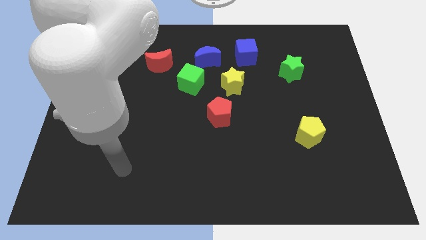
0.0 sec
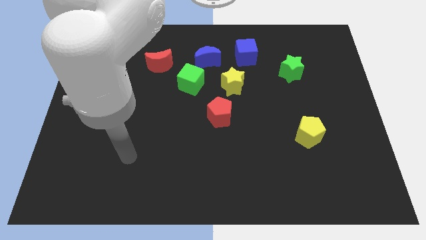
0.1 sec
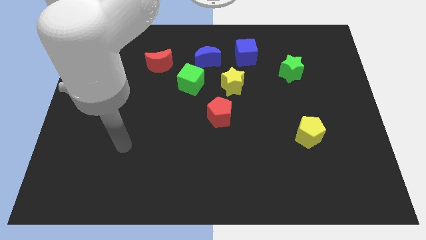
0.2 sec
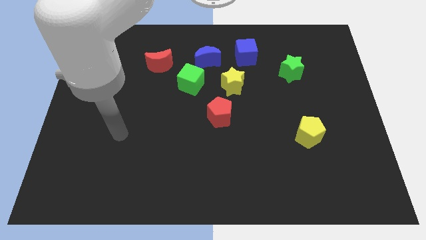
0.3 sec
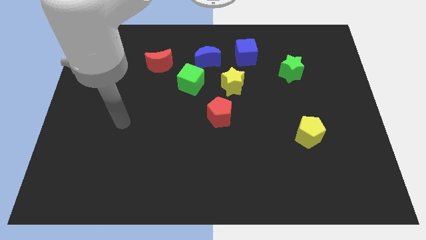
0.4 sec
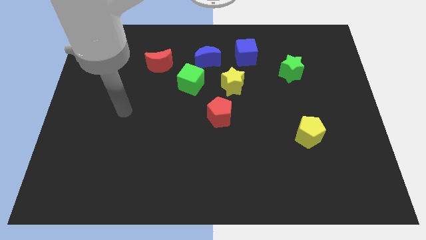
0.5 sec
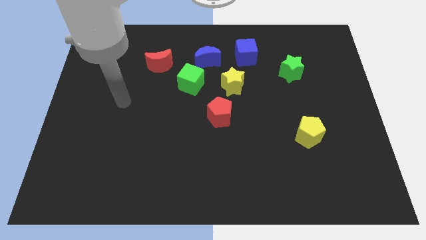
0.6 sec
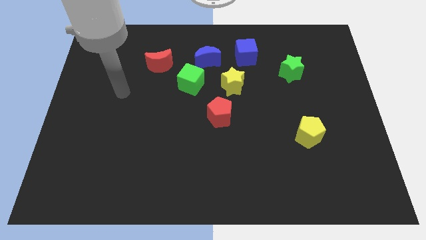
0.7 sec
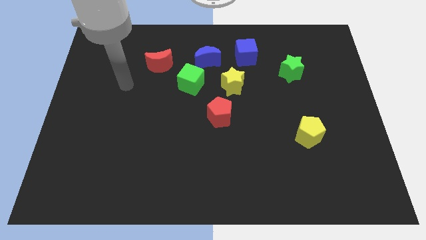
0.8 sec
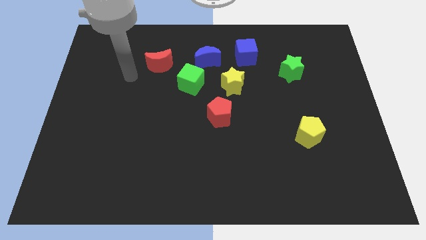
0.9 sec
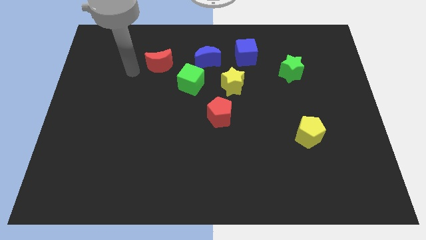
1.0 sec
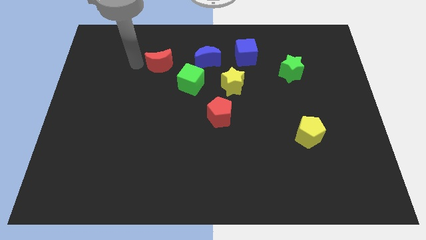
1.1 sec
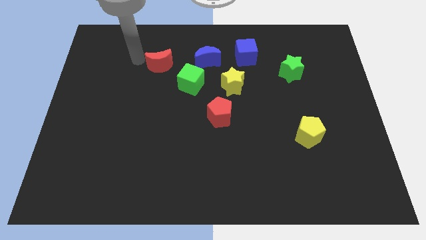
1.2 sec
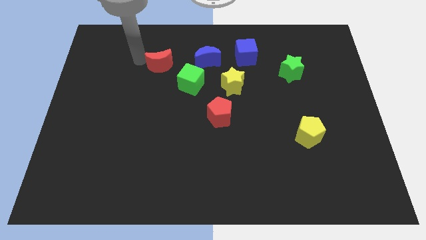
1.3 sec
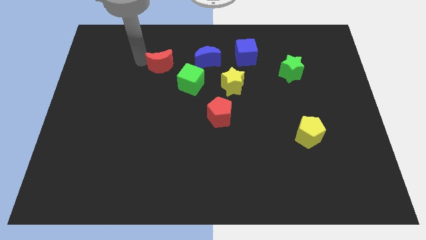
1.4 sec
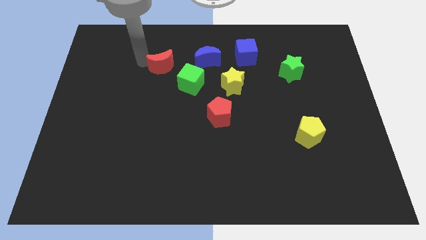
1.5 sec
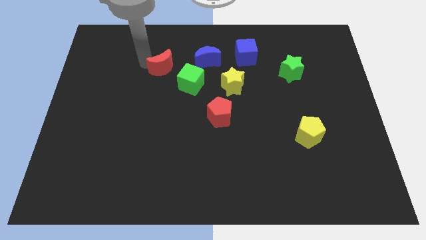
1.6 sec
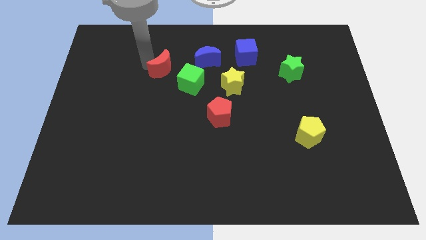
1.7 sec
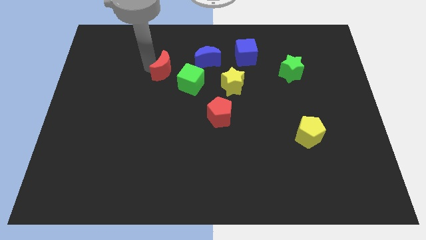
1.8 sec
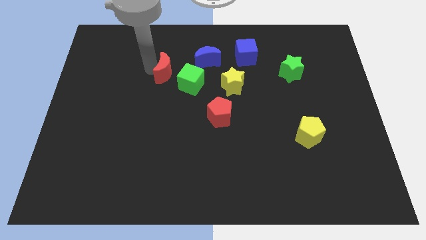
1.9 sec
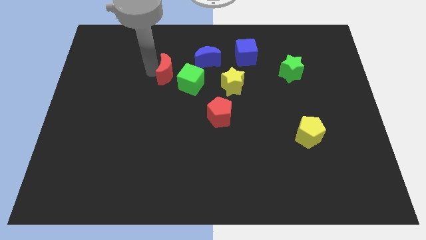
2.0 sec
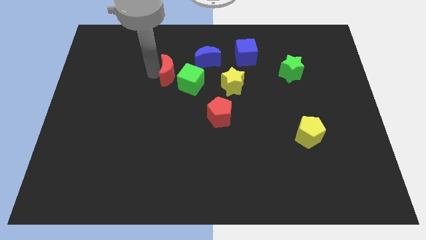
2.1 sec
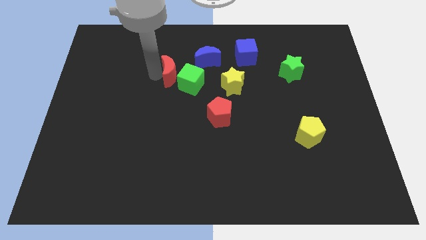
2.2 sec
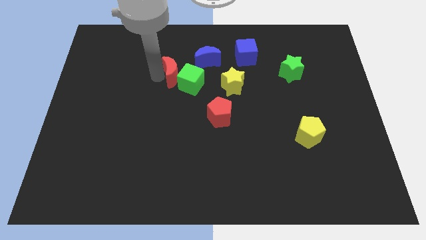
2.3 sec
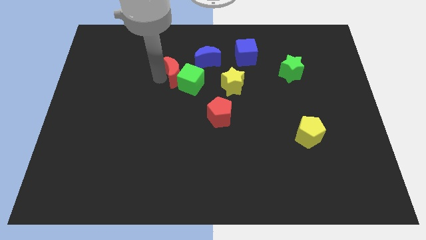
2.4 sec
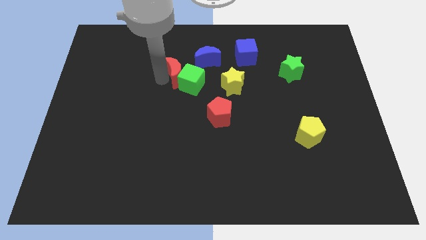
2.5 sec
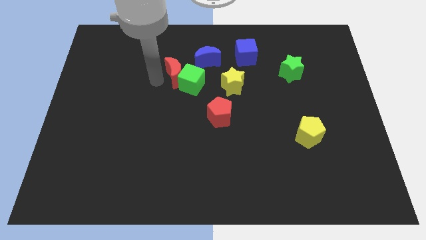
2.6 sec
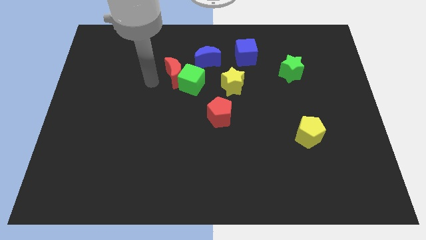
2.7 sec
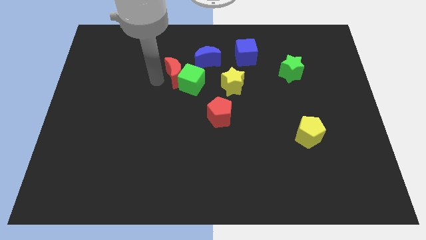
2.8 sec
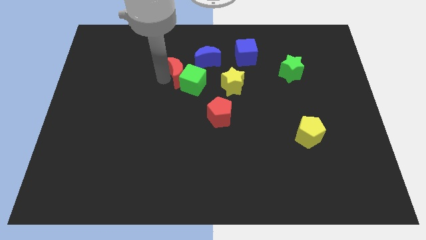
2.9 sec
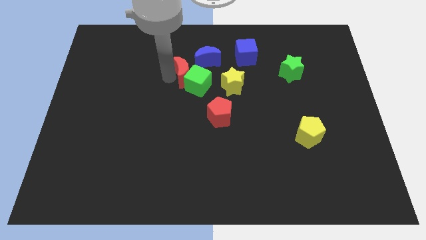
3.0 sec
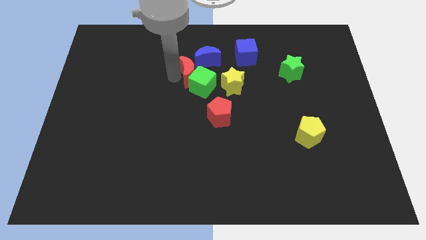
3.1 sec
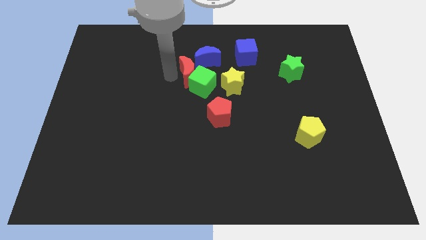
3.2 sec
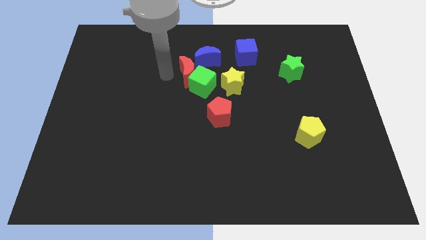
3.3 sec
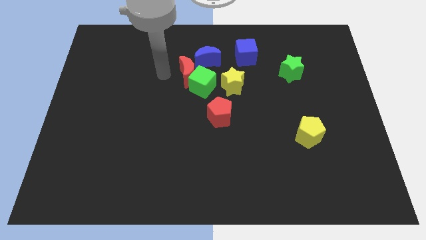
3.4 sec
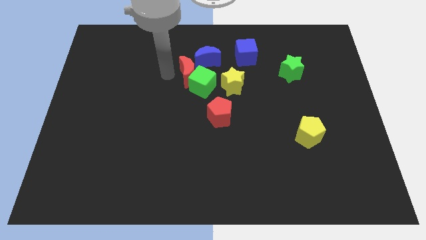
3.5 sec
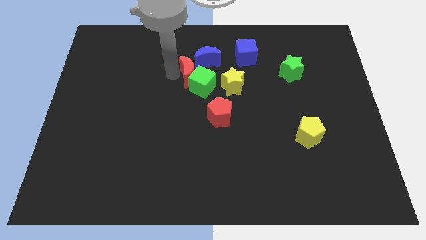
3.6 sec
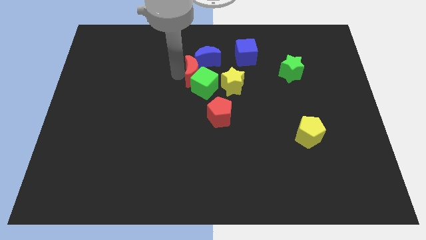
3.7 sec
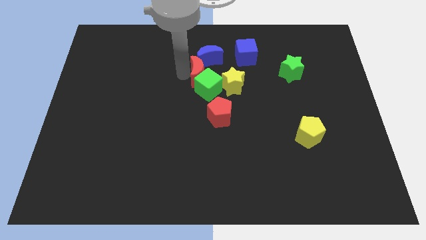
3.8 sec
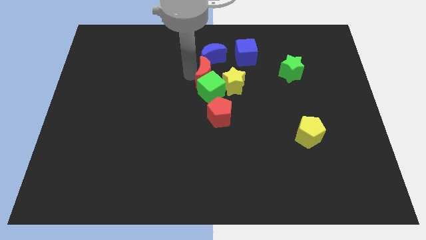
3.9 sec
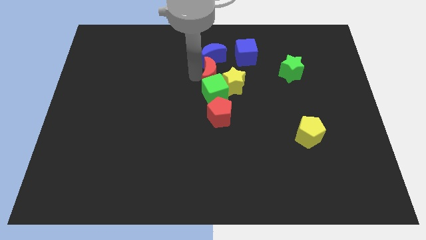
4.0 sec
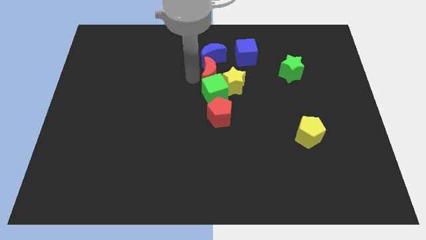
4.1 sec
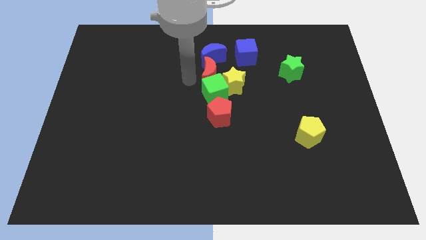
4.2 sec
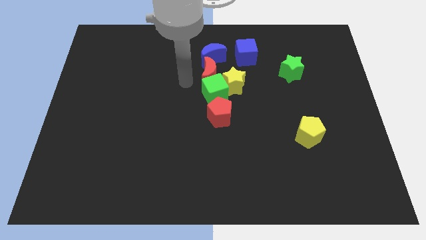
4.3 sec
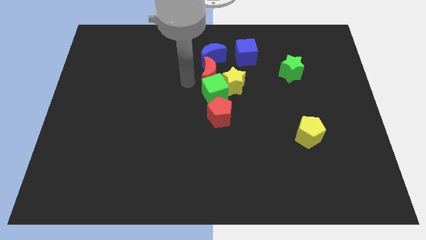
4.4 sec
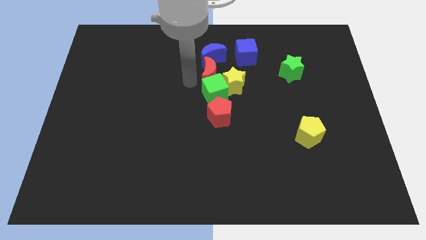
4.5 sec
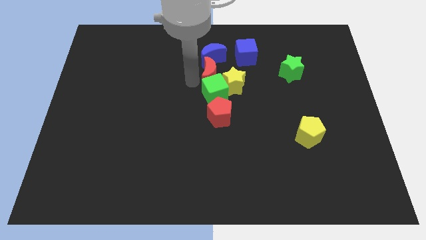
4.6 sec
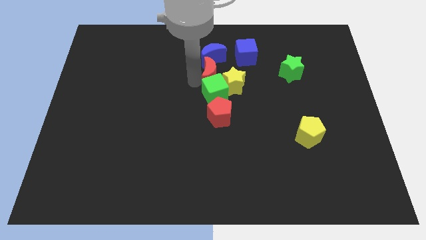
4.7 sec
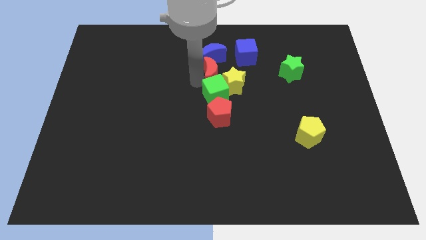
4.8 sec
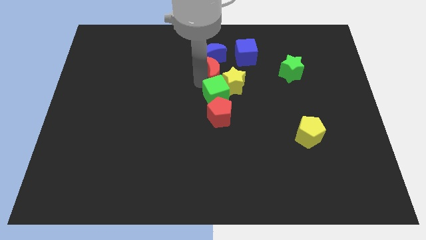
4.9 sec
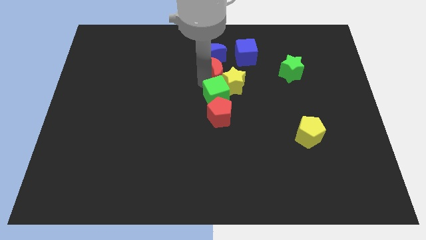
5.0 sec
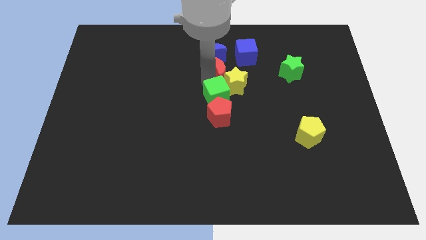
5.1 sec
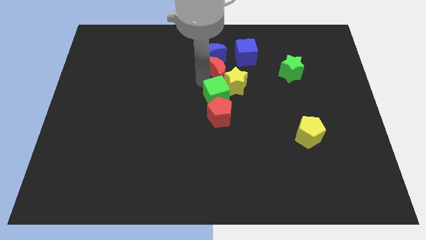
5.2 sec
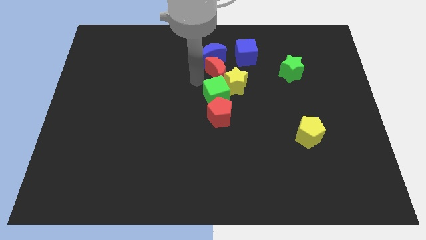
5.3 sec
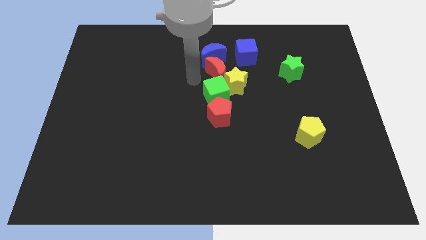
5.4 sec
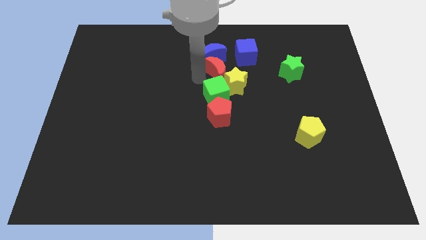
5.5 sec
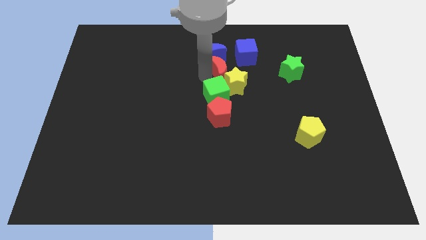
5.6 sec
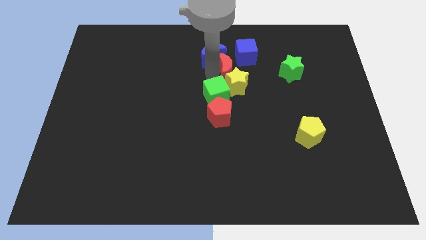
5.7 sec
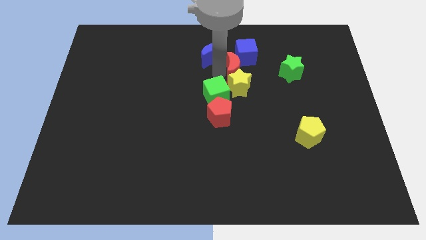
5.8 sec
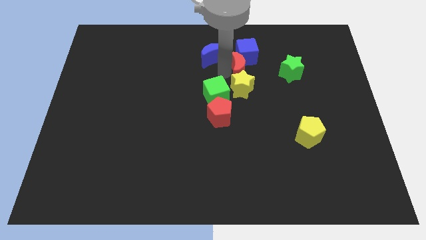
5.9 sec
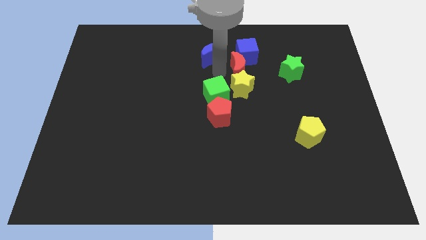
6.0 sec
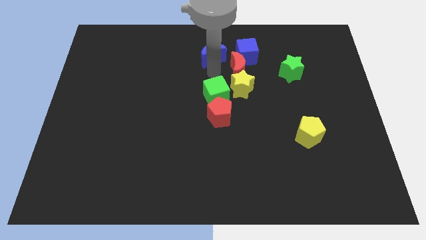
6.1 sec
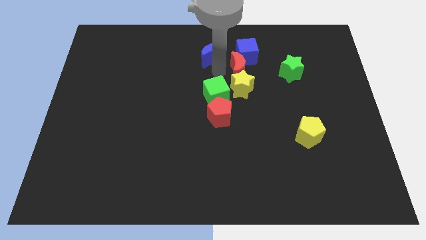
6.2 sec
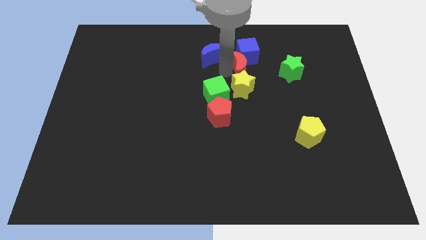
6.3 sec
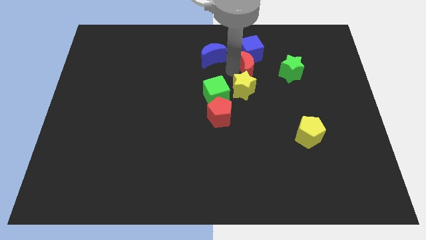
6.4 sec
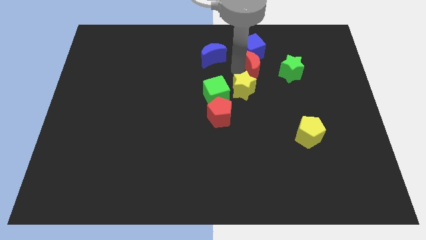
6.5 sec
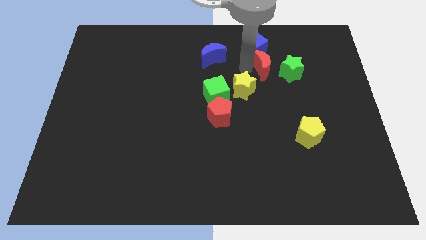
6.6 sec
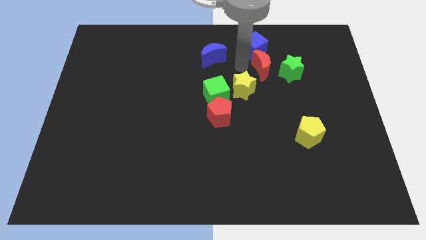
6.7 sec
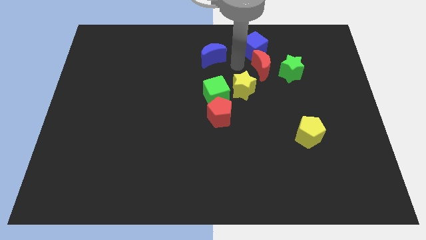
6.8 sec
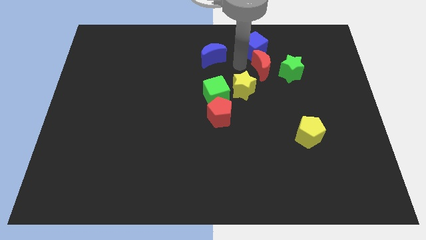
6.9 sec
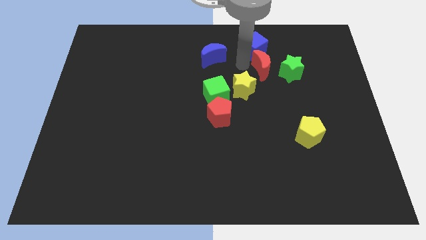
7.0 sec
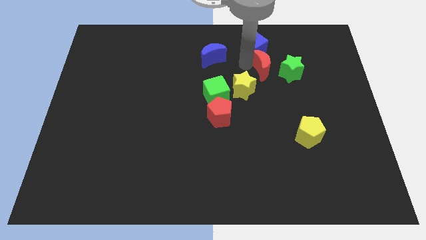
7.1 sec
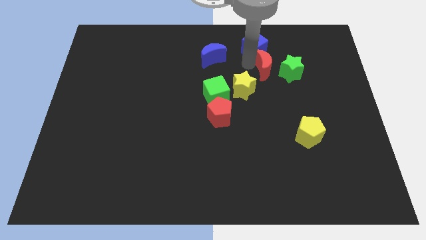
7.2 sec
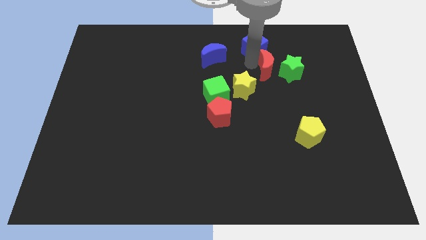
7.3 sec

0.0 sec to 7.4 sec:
slide the red moon close to the green star
